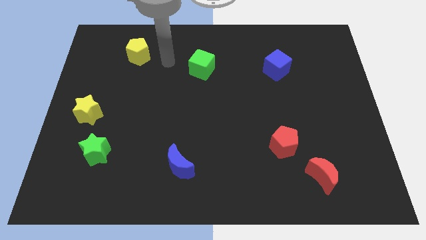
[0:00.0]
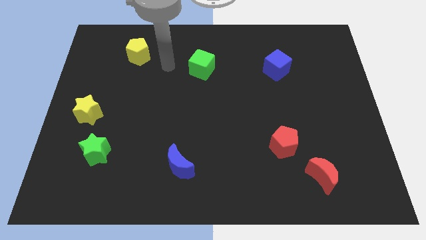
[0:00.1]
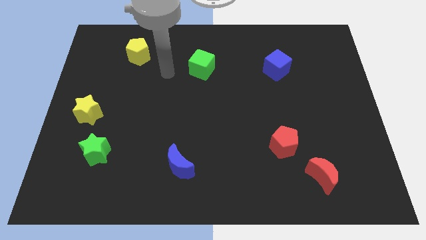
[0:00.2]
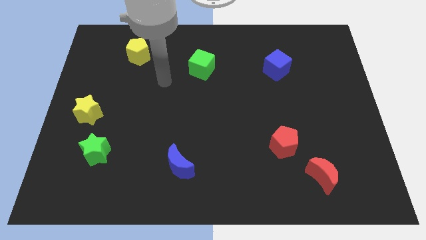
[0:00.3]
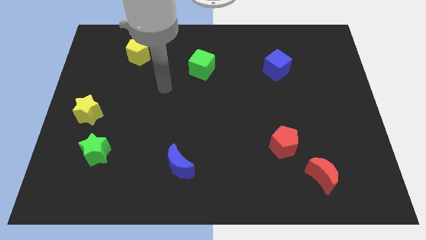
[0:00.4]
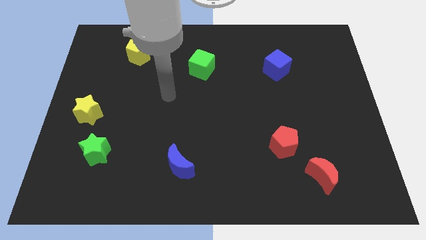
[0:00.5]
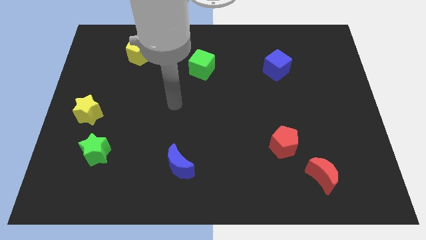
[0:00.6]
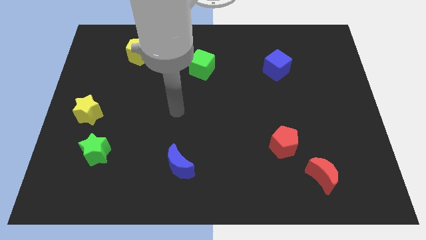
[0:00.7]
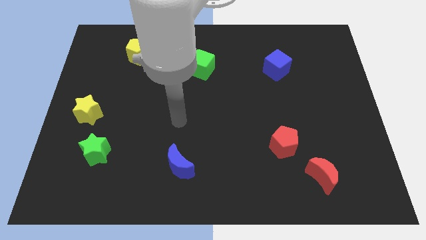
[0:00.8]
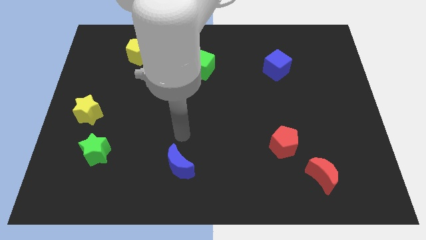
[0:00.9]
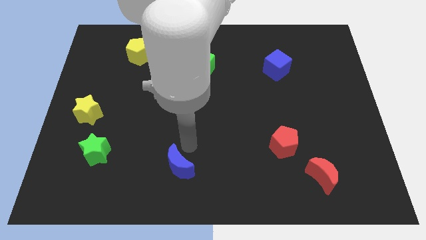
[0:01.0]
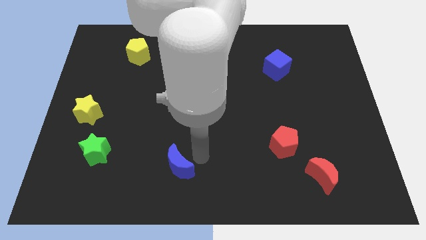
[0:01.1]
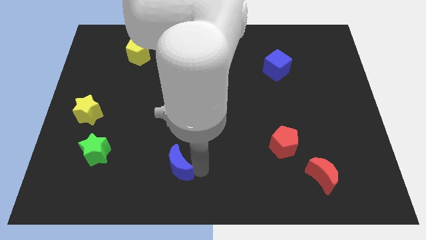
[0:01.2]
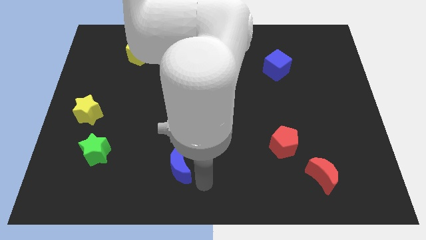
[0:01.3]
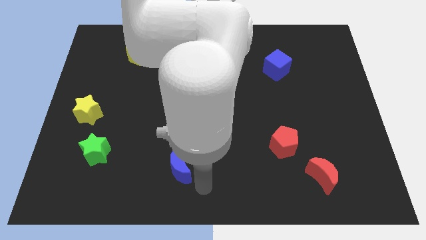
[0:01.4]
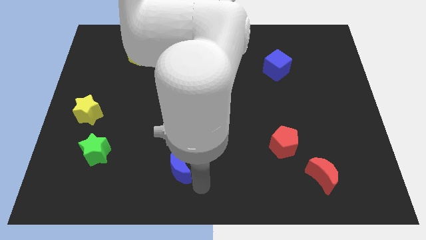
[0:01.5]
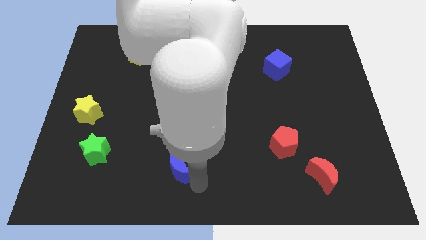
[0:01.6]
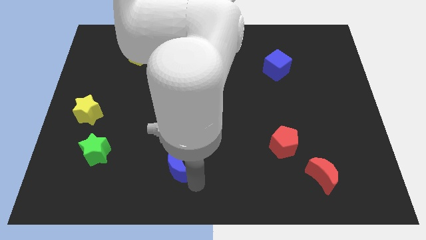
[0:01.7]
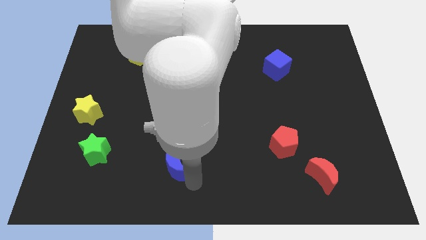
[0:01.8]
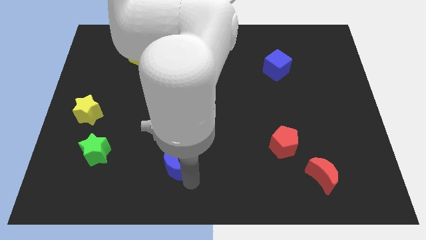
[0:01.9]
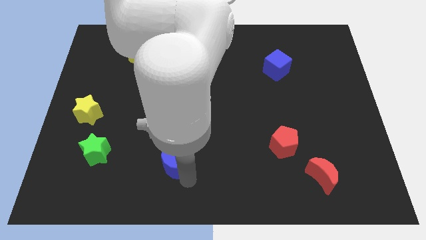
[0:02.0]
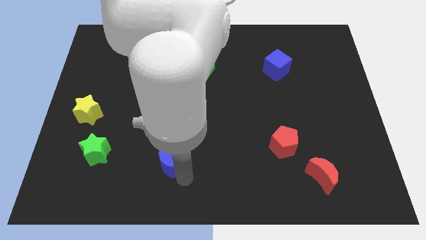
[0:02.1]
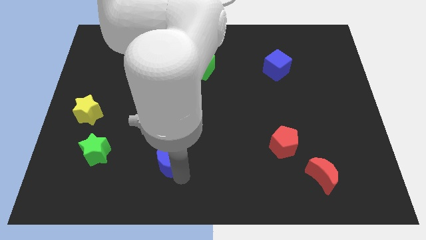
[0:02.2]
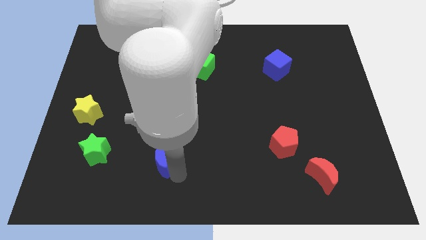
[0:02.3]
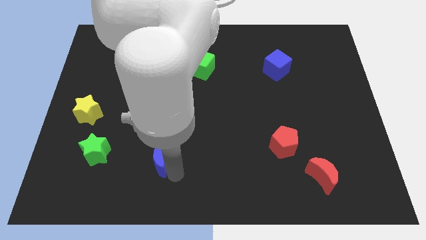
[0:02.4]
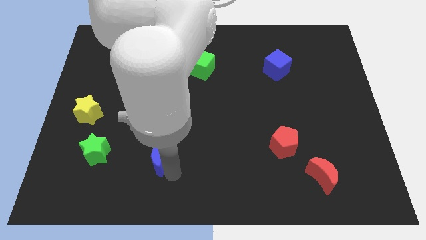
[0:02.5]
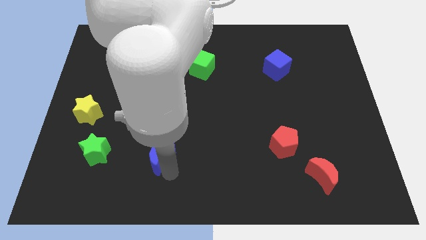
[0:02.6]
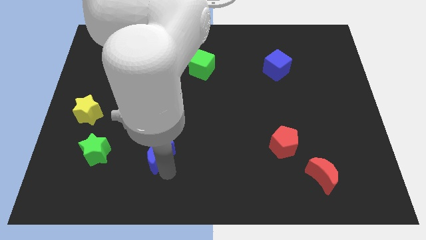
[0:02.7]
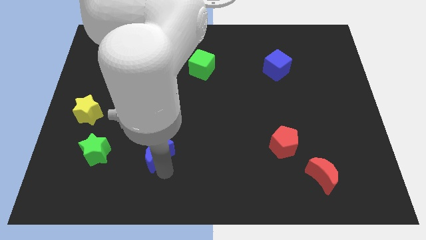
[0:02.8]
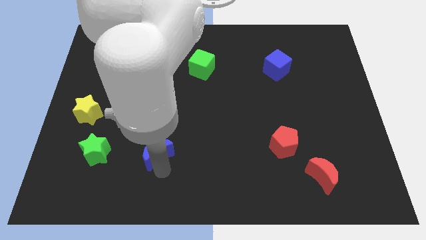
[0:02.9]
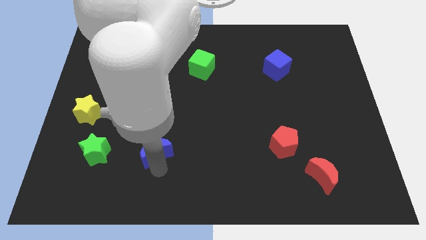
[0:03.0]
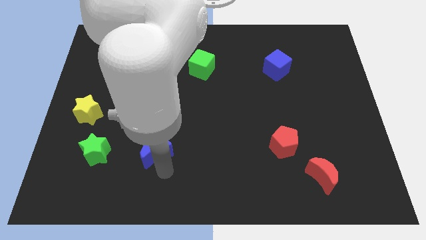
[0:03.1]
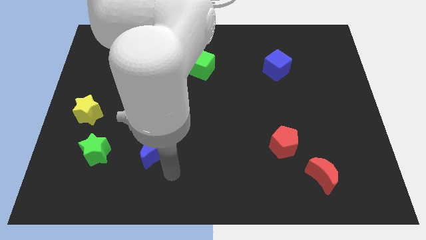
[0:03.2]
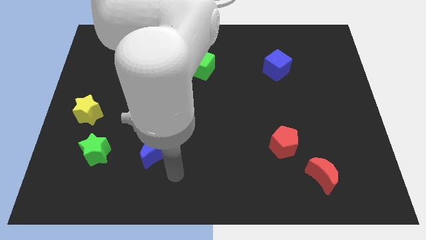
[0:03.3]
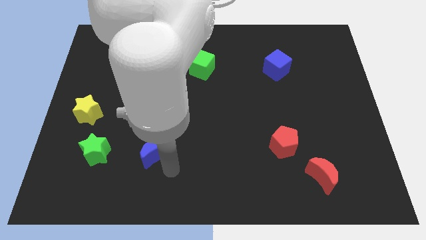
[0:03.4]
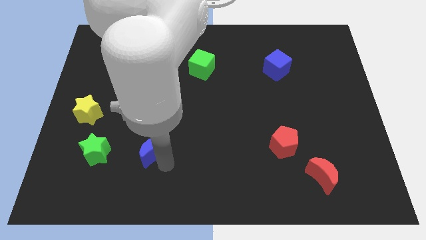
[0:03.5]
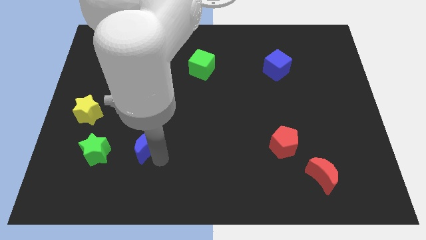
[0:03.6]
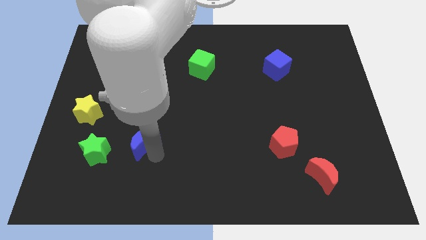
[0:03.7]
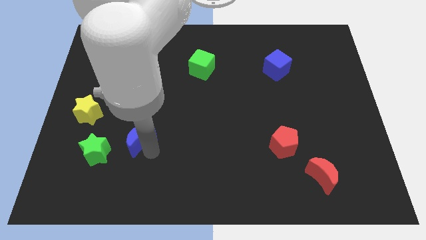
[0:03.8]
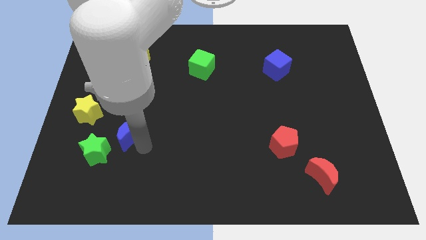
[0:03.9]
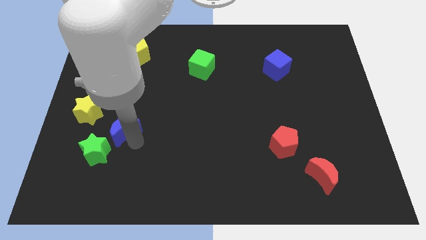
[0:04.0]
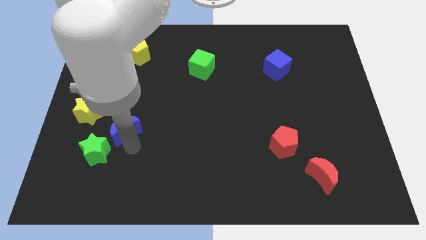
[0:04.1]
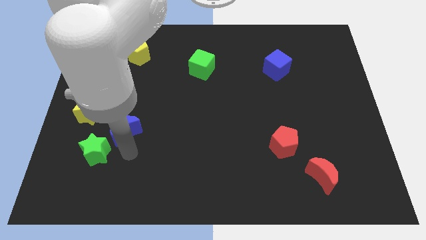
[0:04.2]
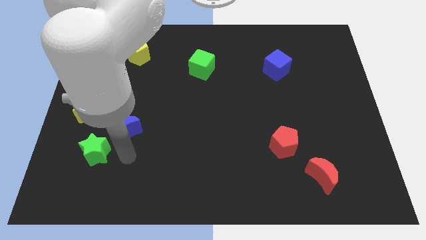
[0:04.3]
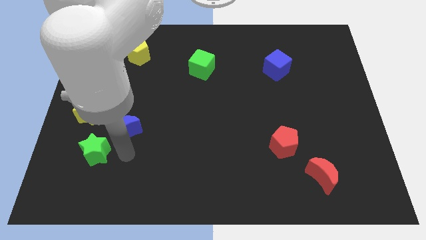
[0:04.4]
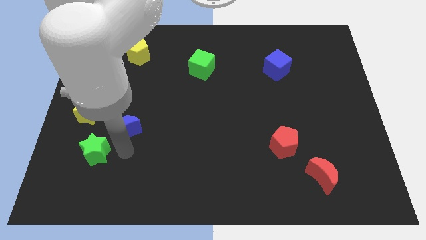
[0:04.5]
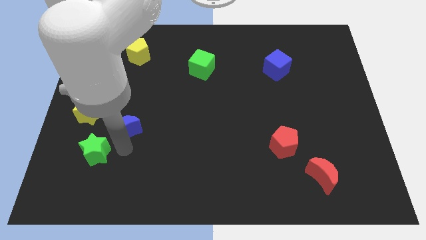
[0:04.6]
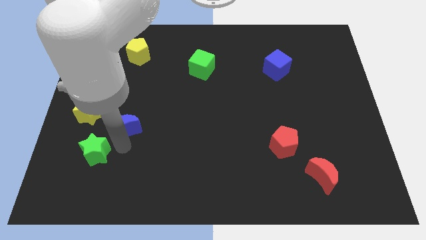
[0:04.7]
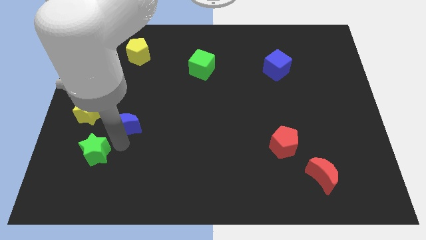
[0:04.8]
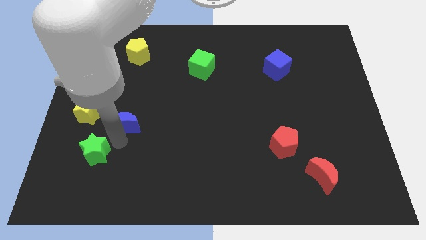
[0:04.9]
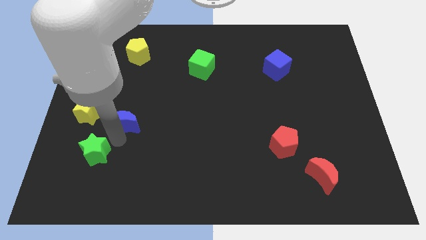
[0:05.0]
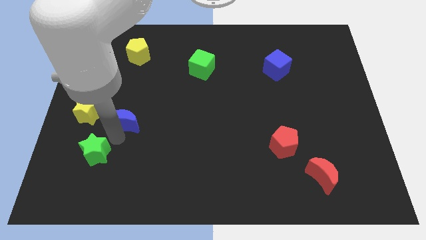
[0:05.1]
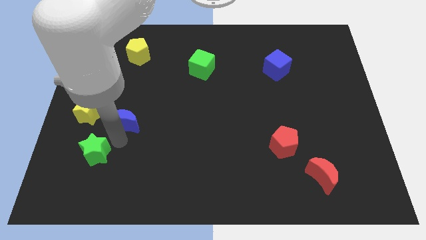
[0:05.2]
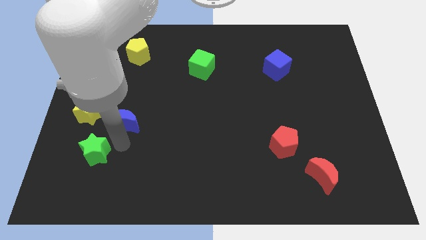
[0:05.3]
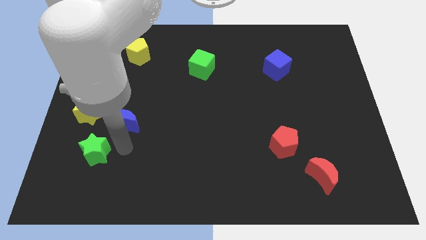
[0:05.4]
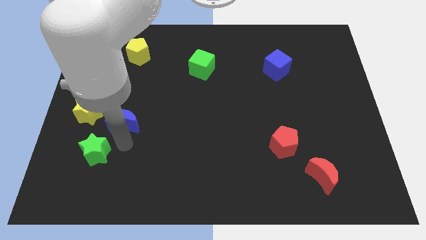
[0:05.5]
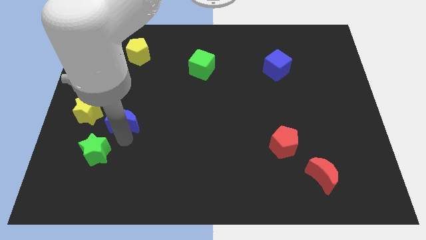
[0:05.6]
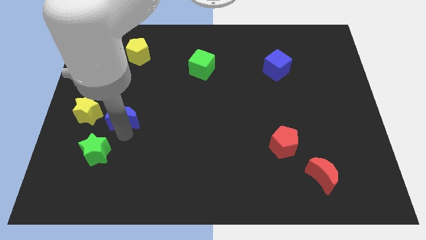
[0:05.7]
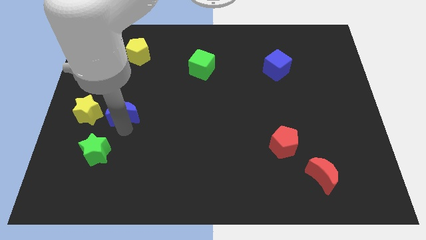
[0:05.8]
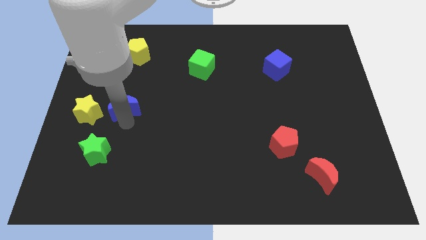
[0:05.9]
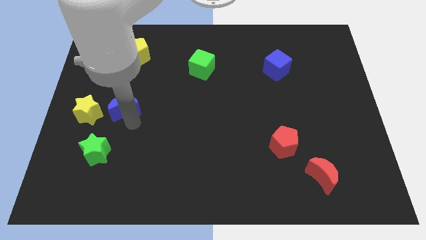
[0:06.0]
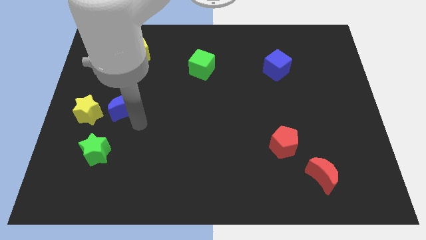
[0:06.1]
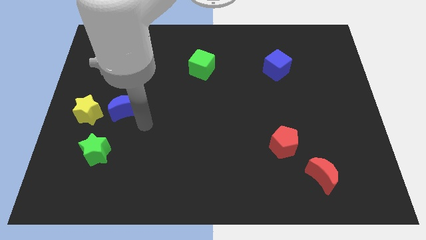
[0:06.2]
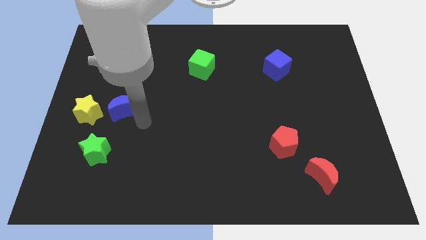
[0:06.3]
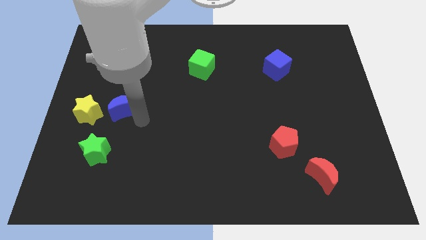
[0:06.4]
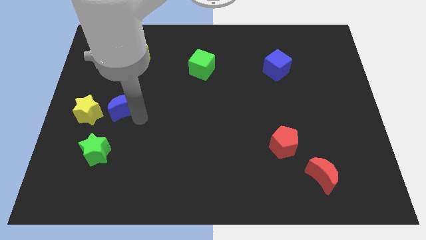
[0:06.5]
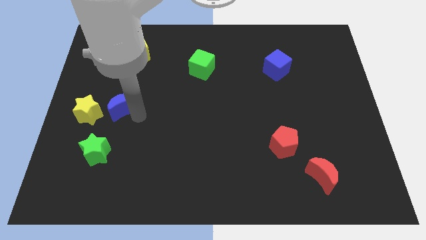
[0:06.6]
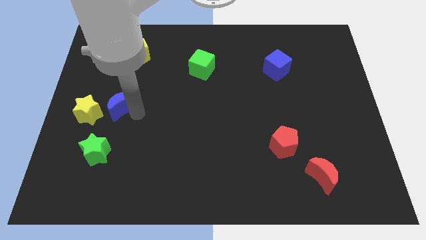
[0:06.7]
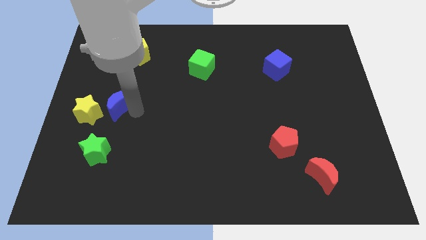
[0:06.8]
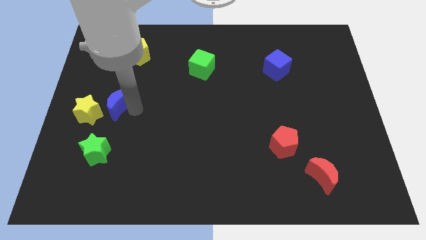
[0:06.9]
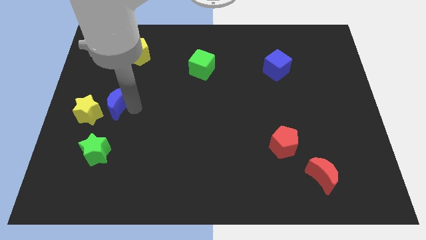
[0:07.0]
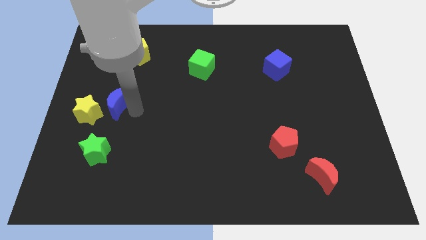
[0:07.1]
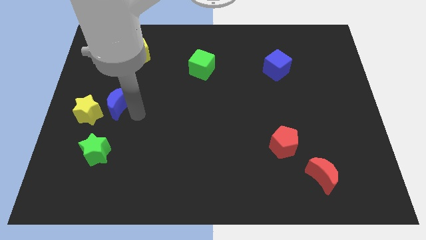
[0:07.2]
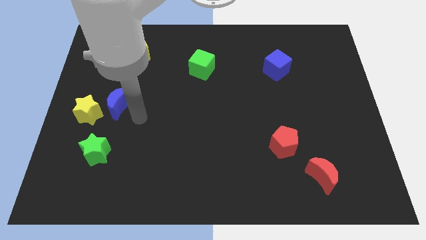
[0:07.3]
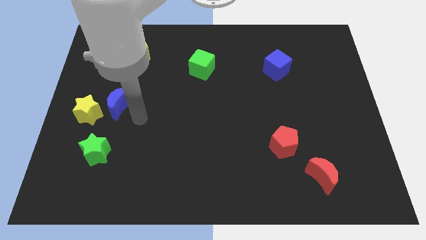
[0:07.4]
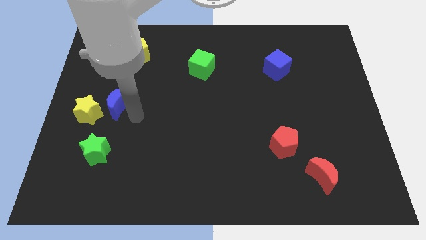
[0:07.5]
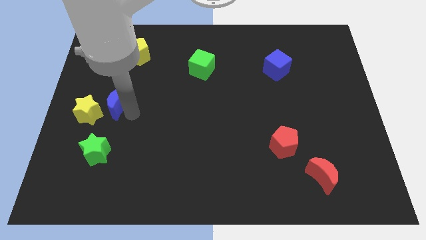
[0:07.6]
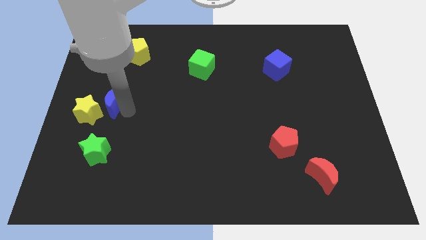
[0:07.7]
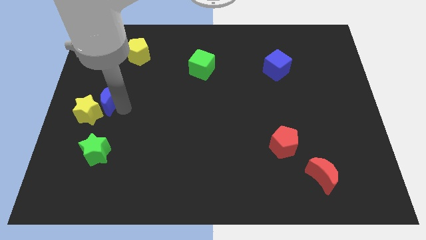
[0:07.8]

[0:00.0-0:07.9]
put the blue moon above the yellow star
